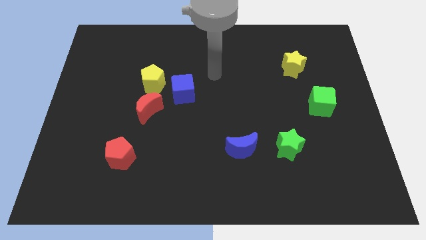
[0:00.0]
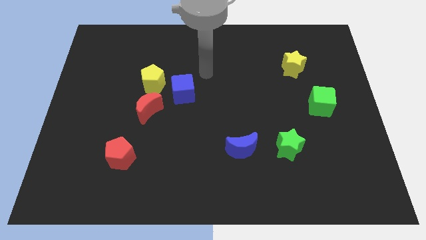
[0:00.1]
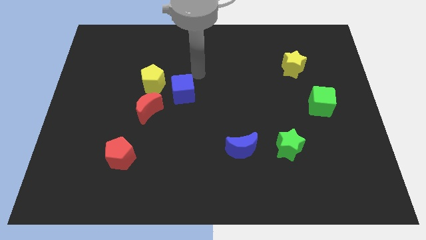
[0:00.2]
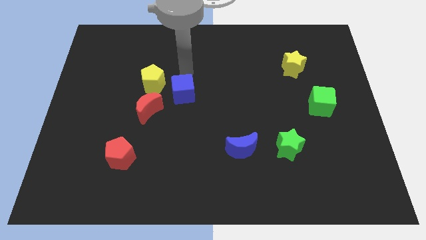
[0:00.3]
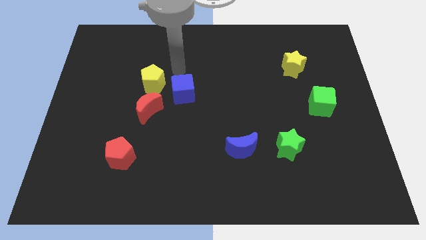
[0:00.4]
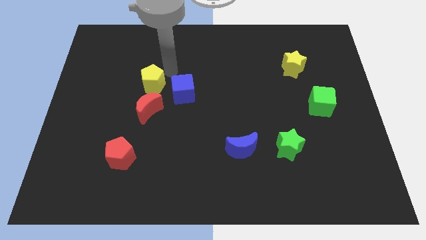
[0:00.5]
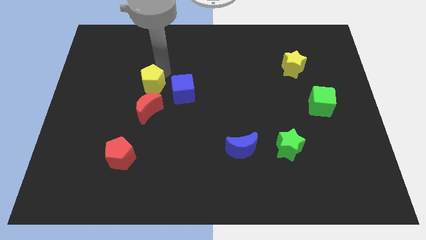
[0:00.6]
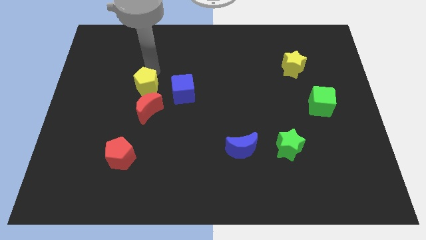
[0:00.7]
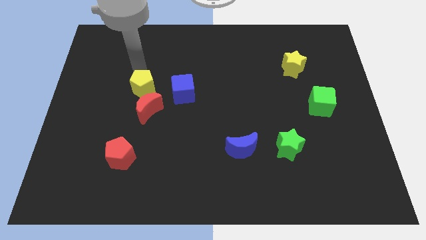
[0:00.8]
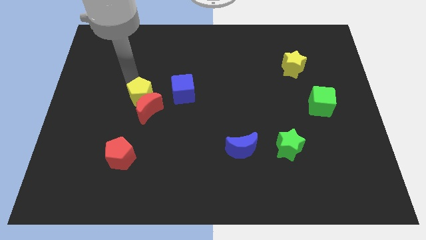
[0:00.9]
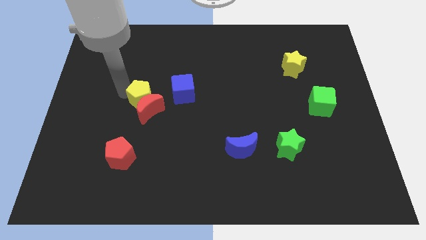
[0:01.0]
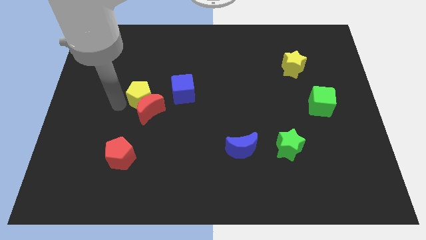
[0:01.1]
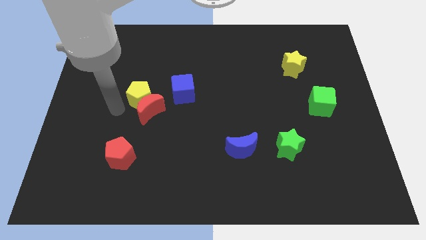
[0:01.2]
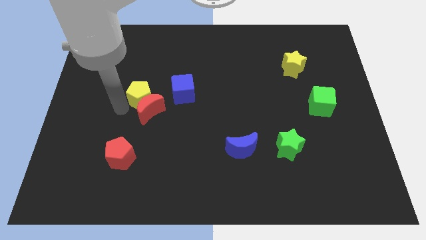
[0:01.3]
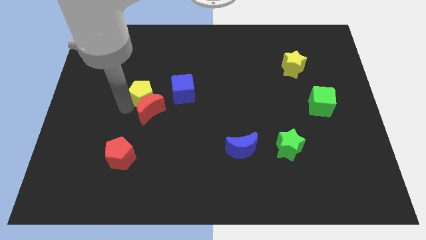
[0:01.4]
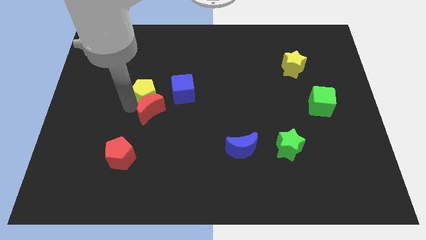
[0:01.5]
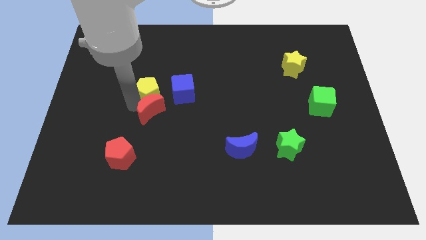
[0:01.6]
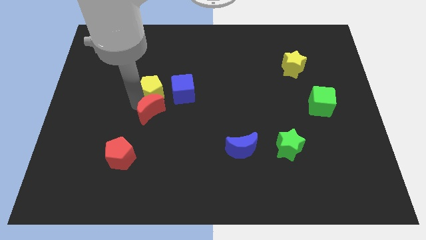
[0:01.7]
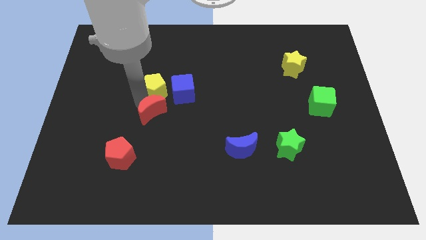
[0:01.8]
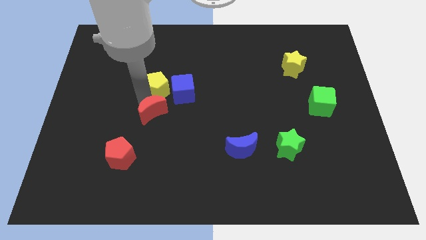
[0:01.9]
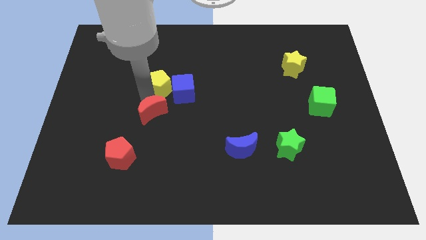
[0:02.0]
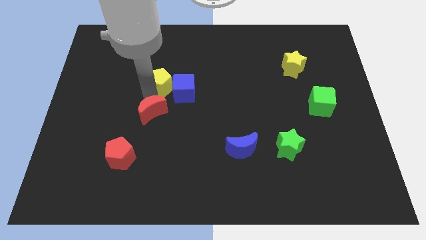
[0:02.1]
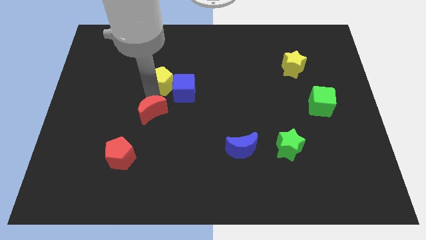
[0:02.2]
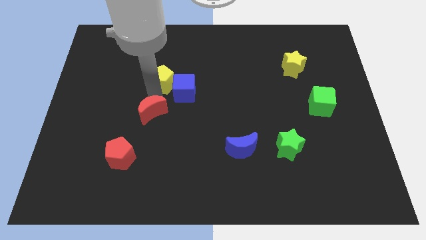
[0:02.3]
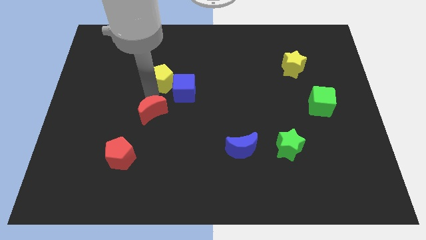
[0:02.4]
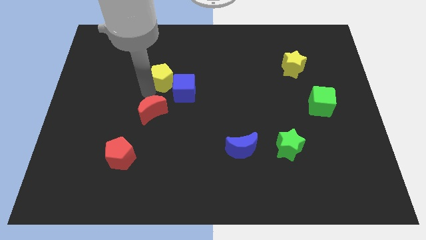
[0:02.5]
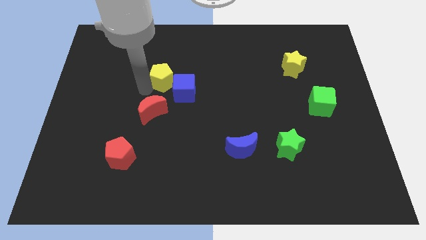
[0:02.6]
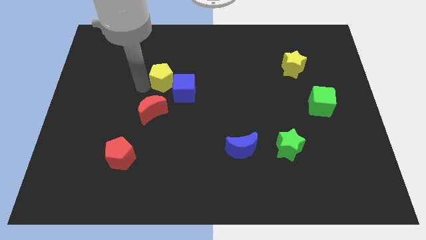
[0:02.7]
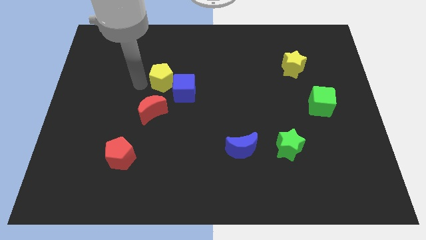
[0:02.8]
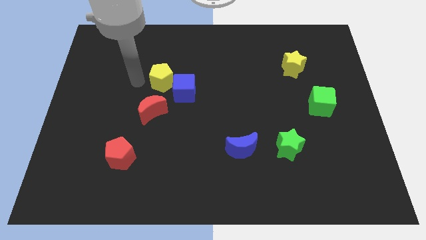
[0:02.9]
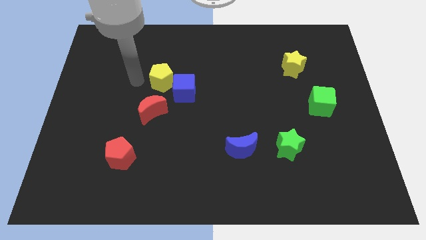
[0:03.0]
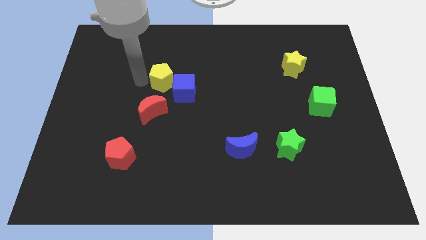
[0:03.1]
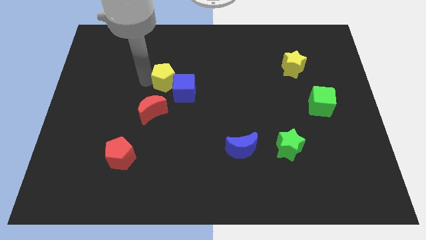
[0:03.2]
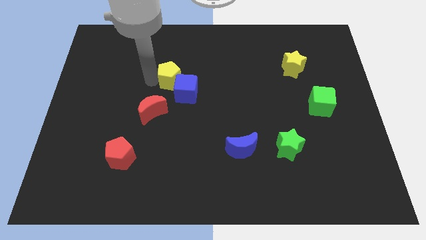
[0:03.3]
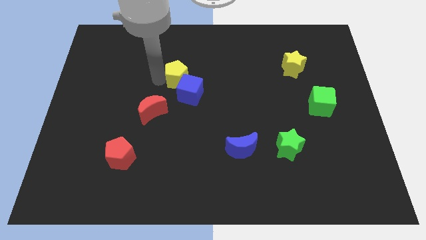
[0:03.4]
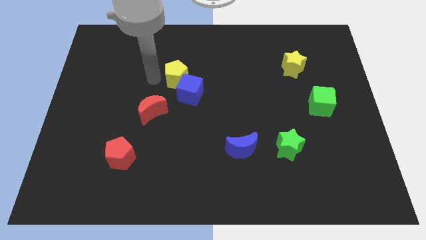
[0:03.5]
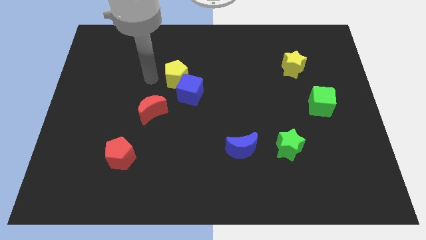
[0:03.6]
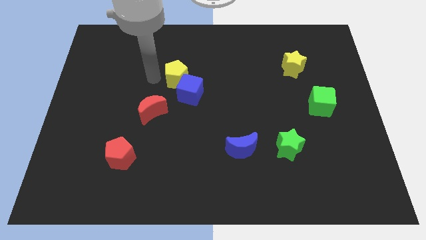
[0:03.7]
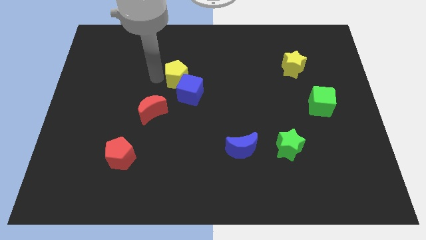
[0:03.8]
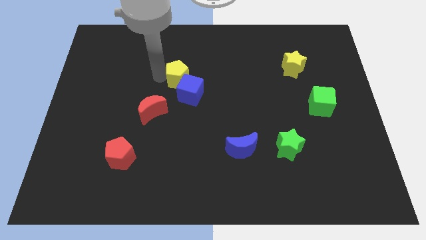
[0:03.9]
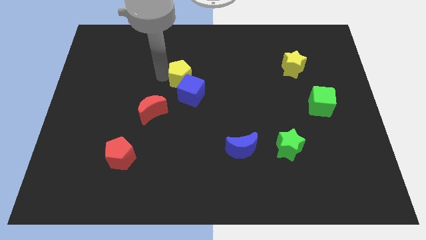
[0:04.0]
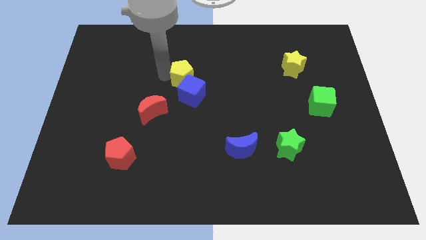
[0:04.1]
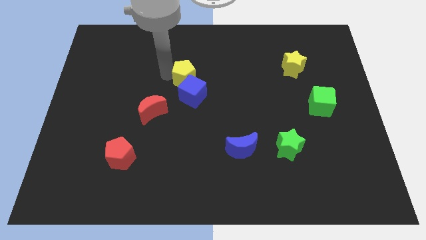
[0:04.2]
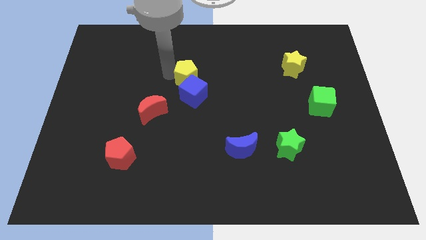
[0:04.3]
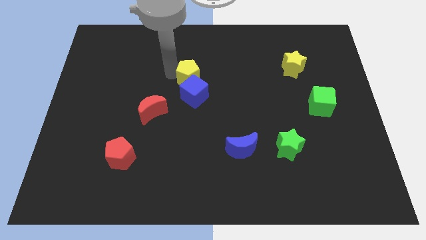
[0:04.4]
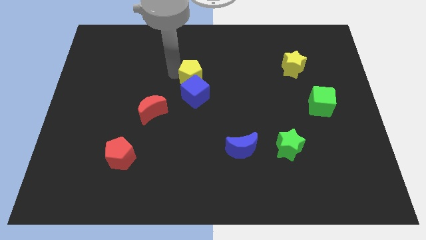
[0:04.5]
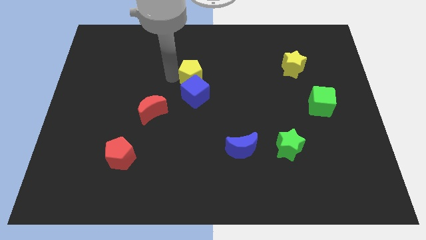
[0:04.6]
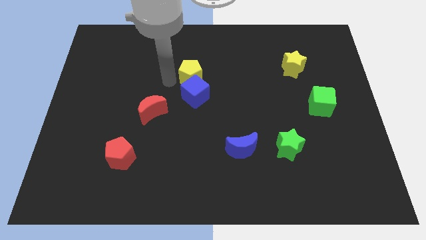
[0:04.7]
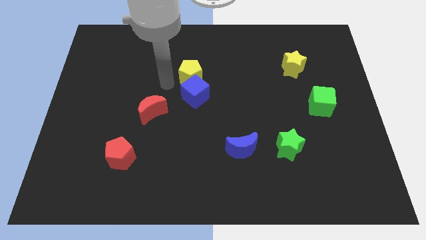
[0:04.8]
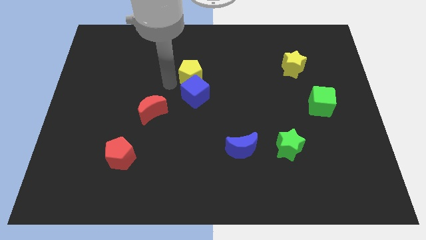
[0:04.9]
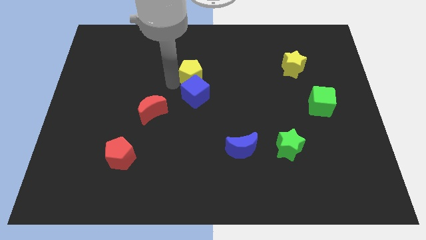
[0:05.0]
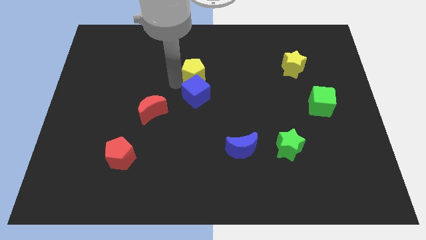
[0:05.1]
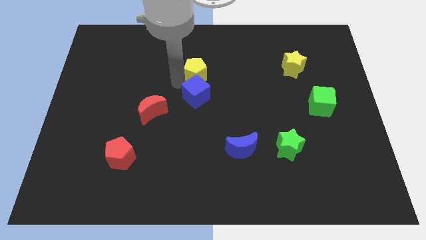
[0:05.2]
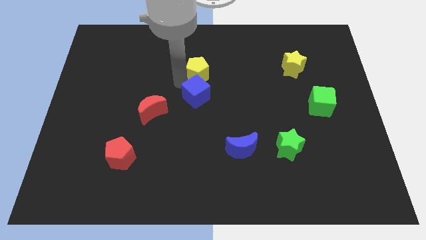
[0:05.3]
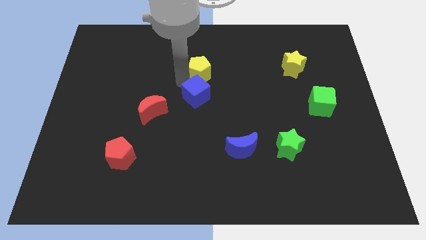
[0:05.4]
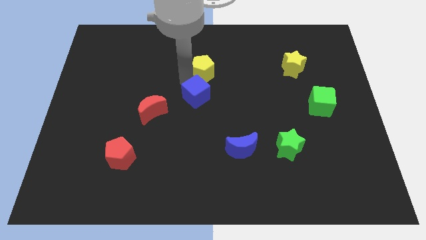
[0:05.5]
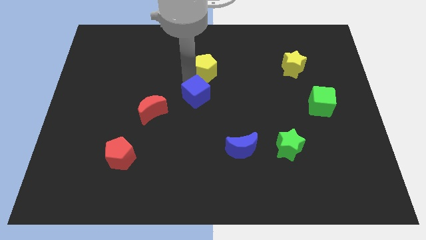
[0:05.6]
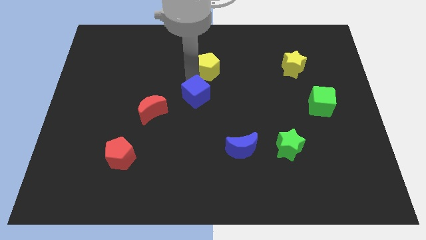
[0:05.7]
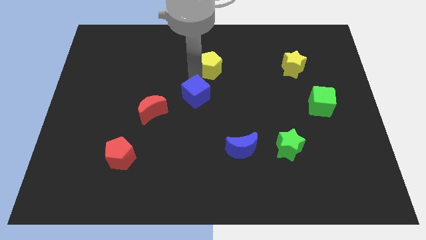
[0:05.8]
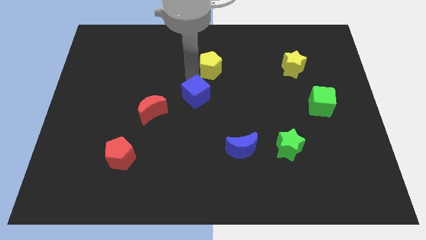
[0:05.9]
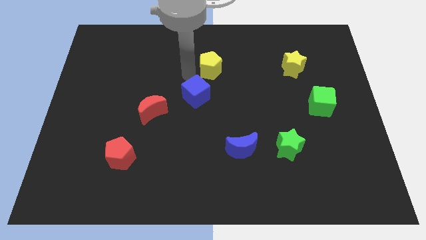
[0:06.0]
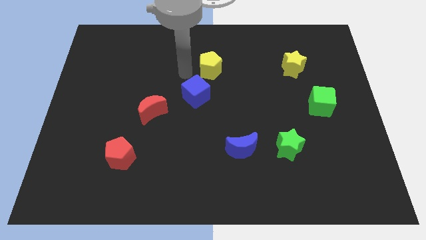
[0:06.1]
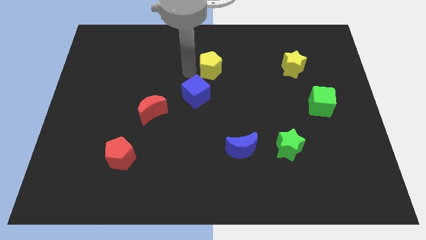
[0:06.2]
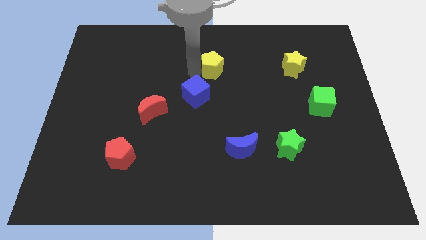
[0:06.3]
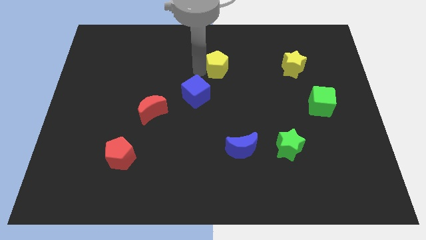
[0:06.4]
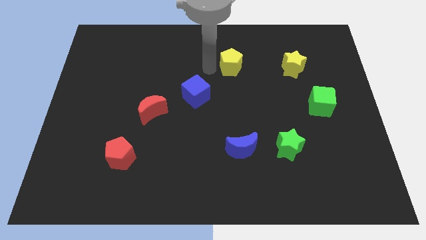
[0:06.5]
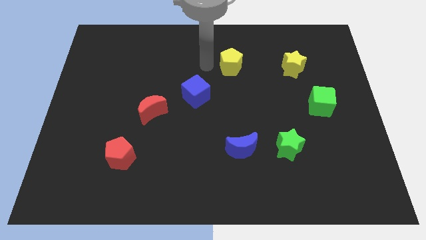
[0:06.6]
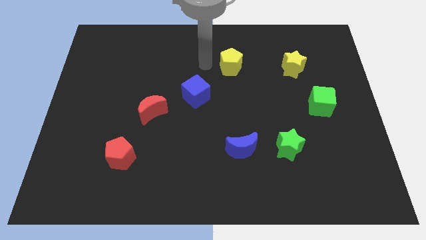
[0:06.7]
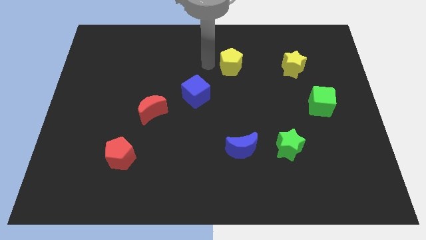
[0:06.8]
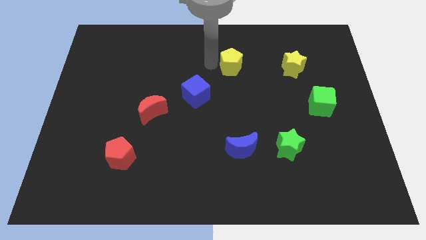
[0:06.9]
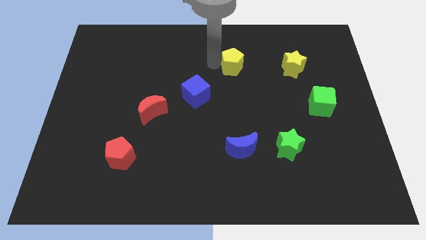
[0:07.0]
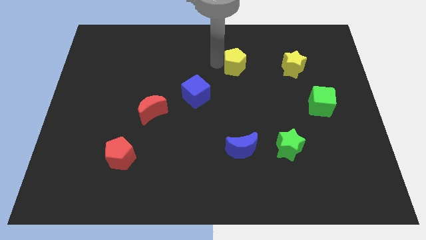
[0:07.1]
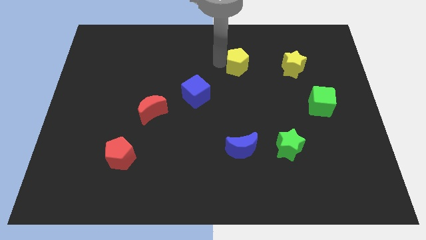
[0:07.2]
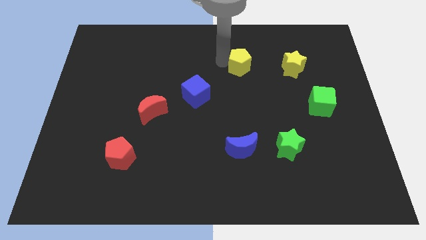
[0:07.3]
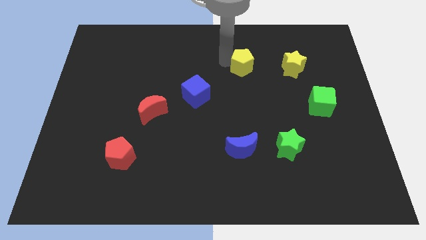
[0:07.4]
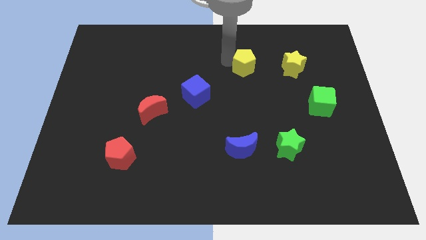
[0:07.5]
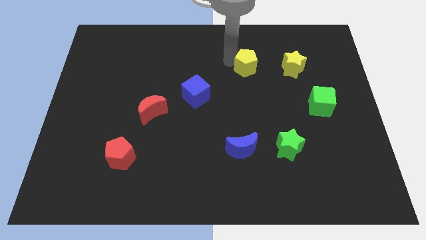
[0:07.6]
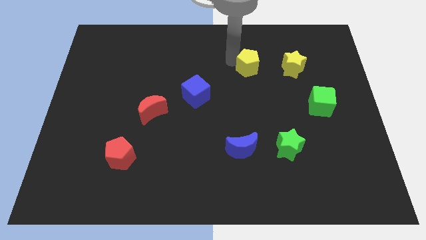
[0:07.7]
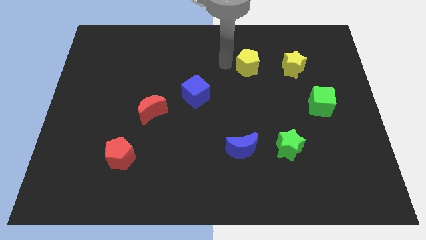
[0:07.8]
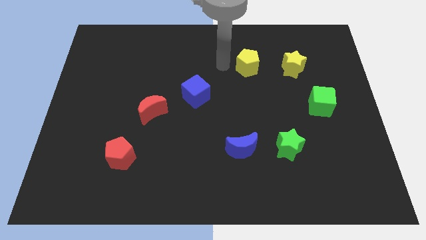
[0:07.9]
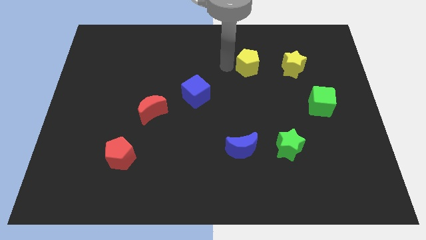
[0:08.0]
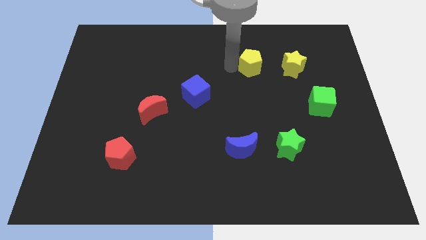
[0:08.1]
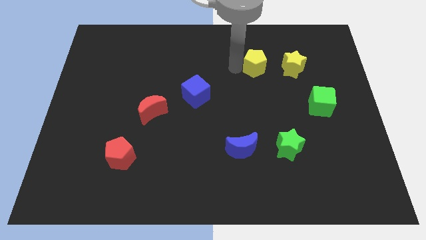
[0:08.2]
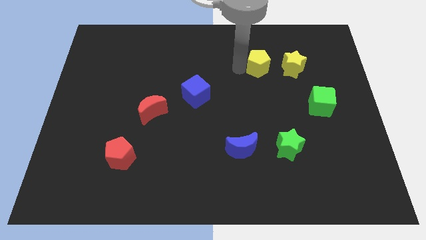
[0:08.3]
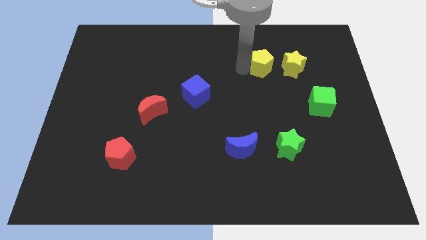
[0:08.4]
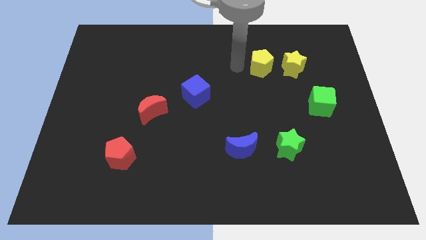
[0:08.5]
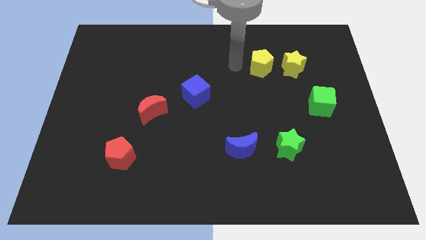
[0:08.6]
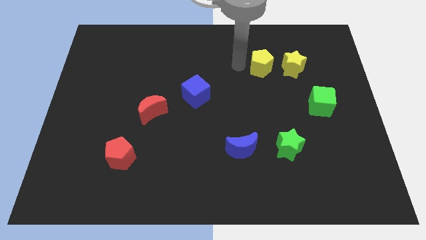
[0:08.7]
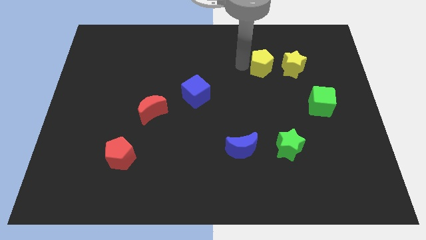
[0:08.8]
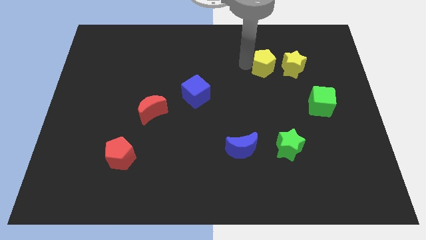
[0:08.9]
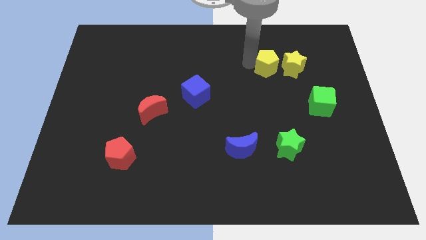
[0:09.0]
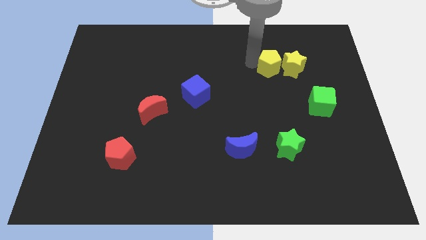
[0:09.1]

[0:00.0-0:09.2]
put the yellow pentagon towards the yellow star
